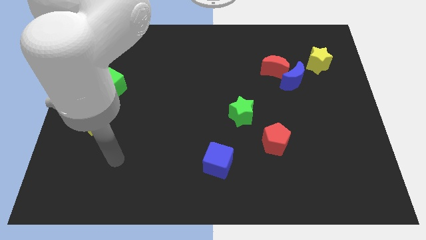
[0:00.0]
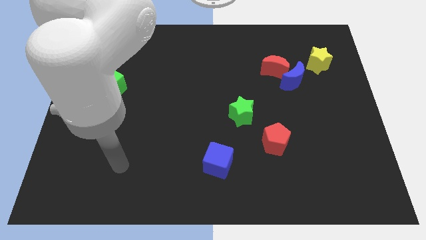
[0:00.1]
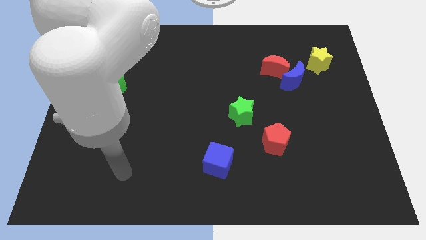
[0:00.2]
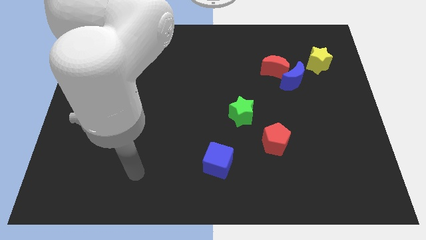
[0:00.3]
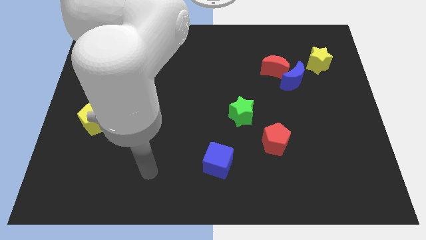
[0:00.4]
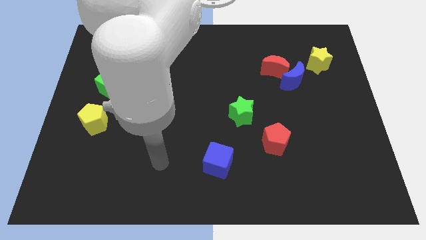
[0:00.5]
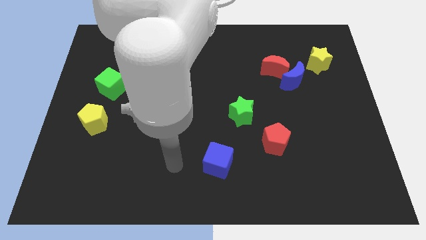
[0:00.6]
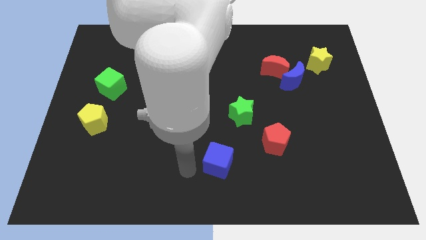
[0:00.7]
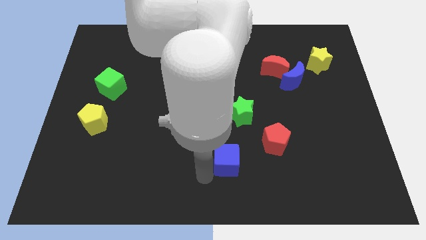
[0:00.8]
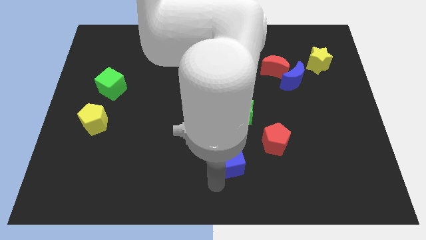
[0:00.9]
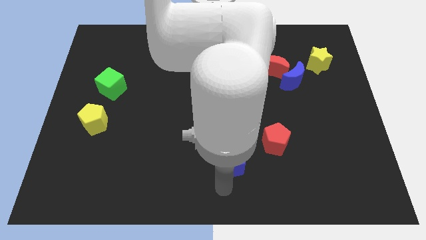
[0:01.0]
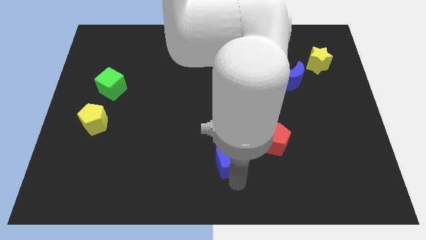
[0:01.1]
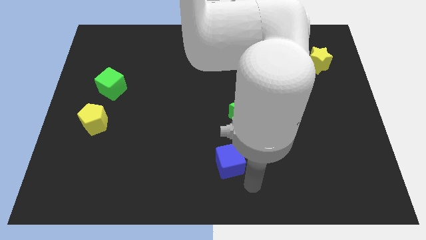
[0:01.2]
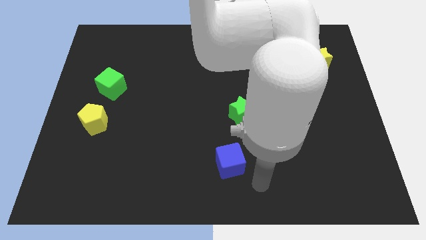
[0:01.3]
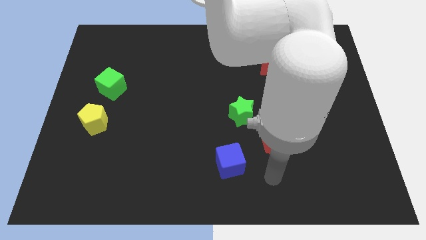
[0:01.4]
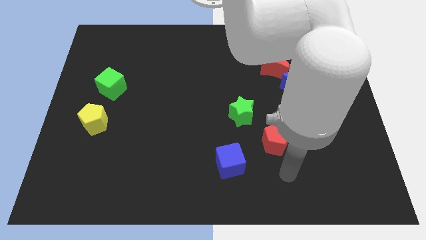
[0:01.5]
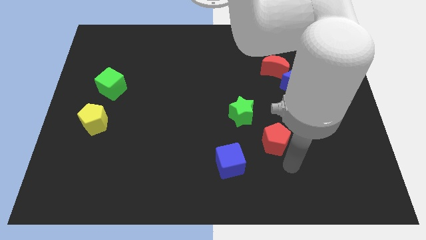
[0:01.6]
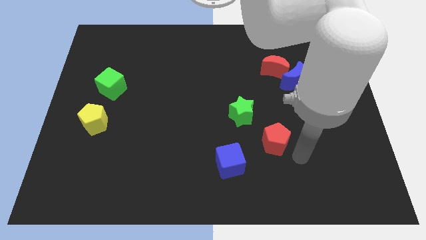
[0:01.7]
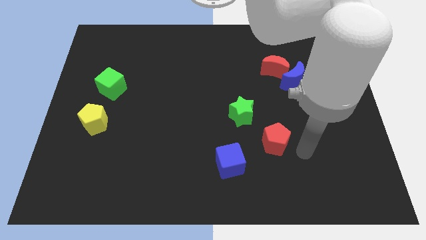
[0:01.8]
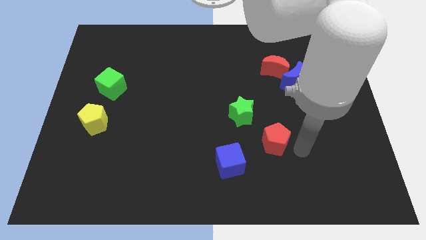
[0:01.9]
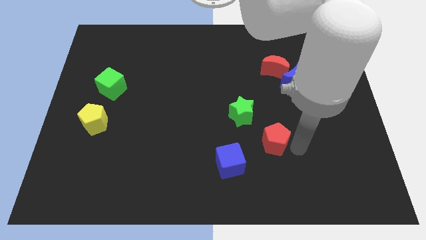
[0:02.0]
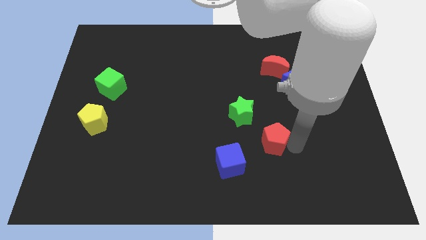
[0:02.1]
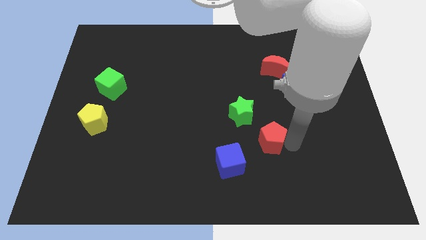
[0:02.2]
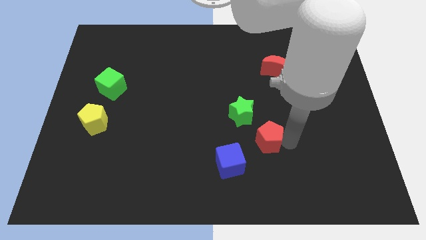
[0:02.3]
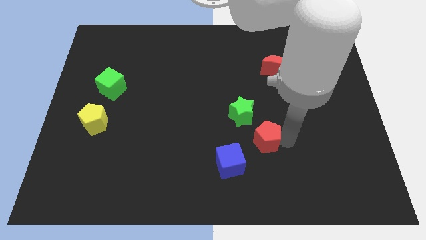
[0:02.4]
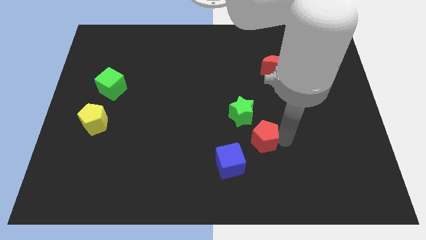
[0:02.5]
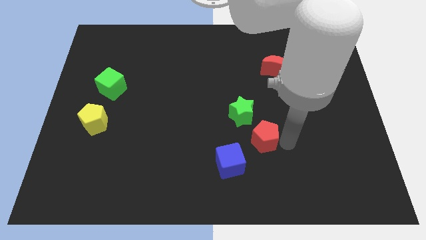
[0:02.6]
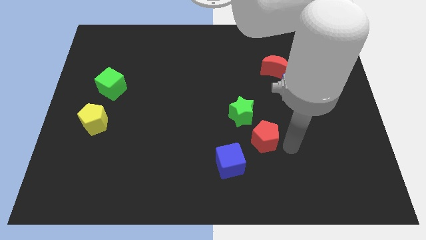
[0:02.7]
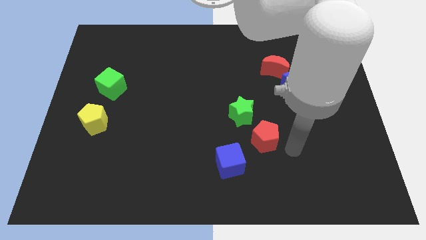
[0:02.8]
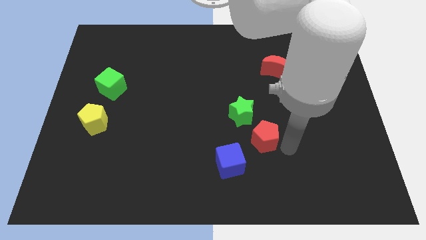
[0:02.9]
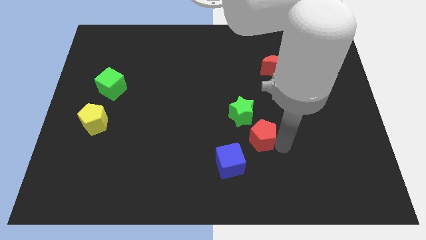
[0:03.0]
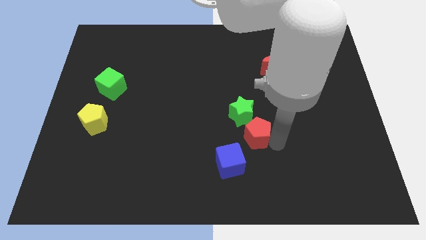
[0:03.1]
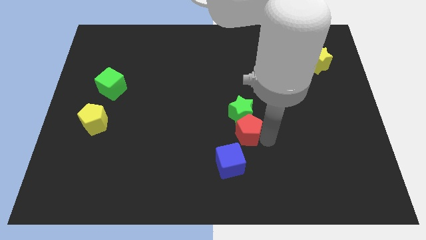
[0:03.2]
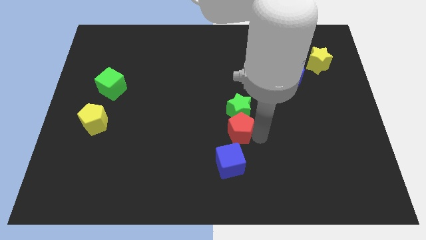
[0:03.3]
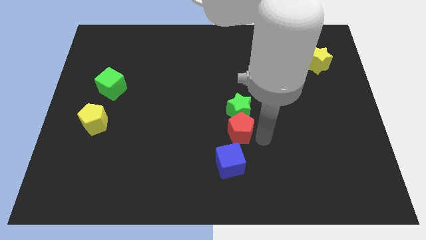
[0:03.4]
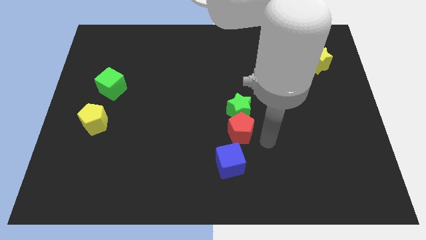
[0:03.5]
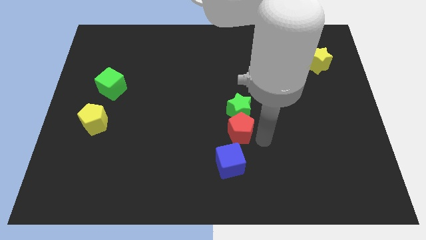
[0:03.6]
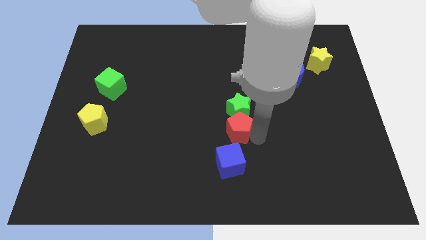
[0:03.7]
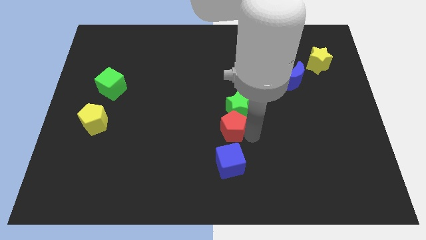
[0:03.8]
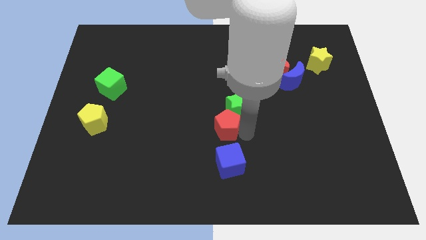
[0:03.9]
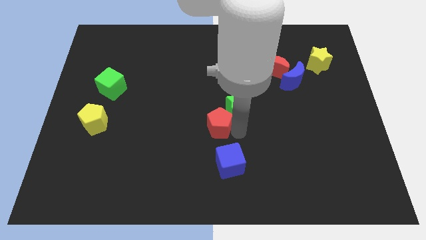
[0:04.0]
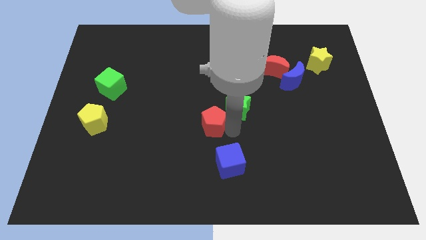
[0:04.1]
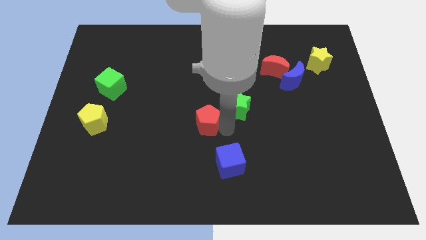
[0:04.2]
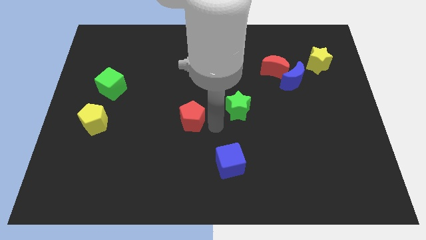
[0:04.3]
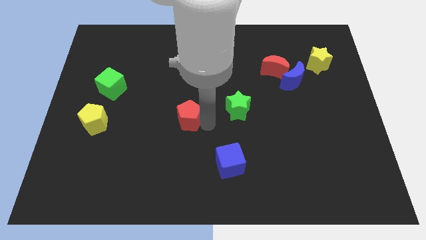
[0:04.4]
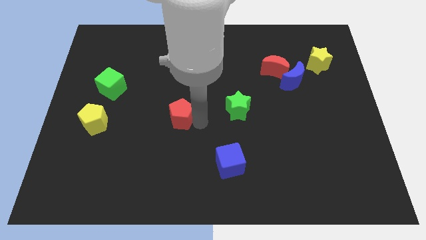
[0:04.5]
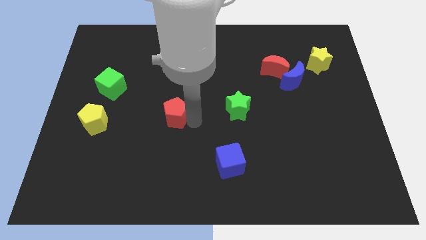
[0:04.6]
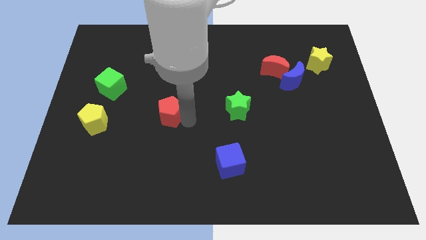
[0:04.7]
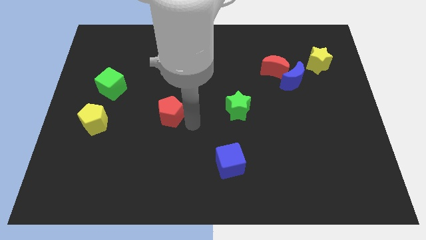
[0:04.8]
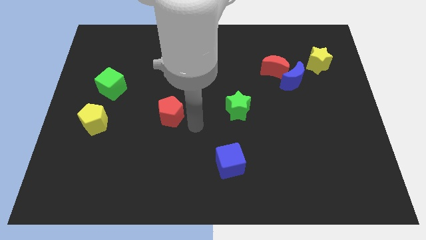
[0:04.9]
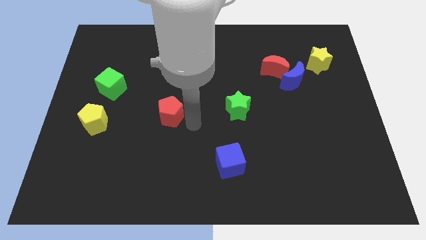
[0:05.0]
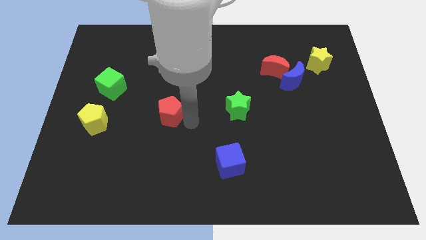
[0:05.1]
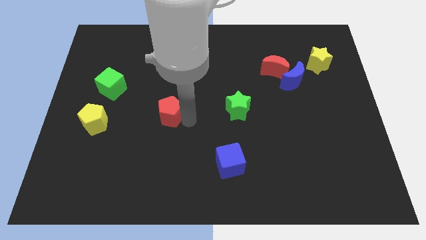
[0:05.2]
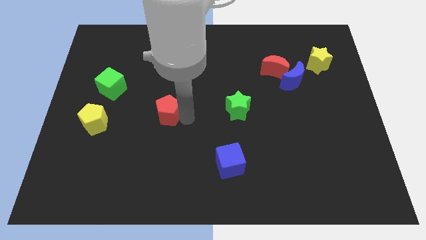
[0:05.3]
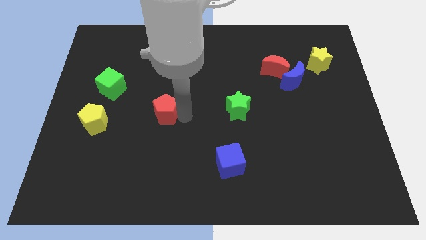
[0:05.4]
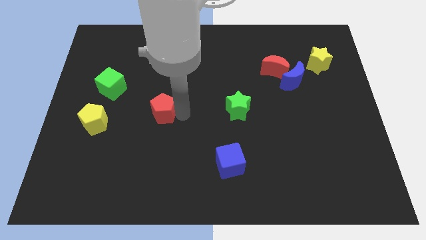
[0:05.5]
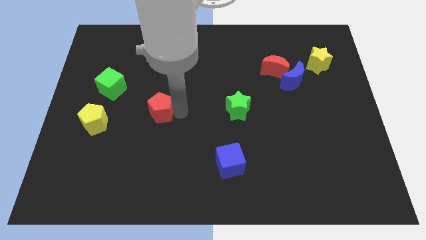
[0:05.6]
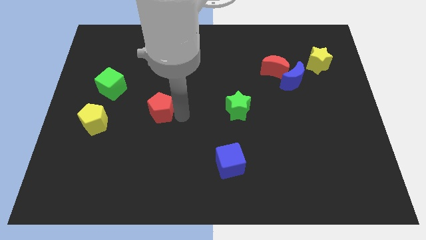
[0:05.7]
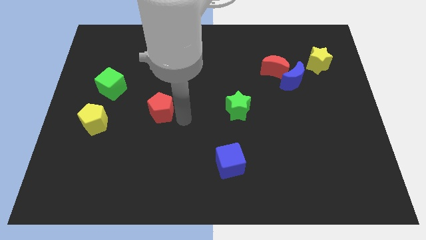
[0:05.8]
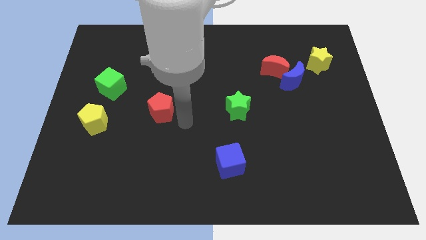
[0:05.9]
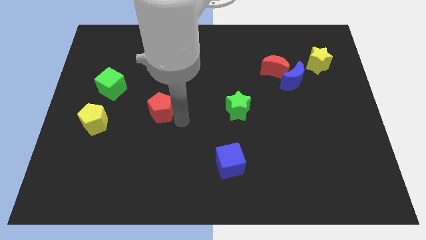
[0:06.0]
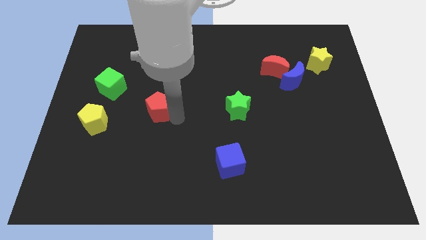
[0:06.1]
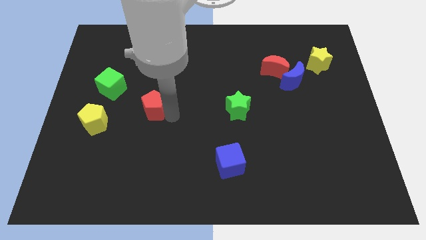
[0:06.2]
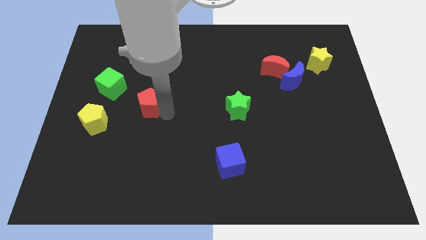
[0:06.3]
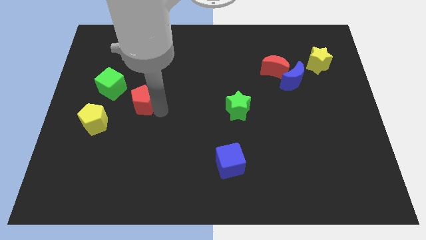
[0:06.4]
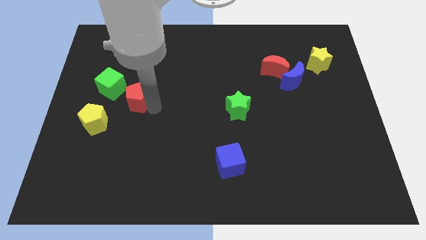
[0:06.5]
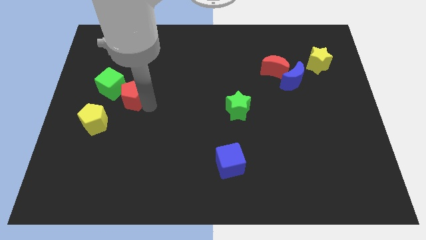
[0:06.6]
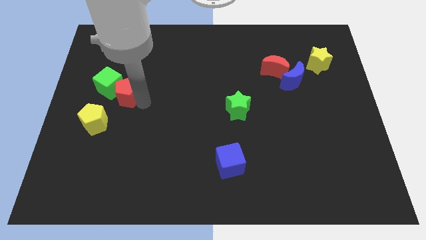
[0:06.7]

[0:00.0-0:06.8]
push the red pentagon to the green cube

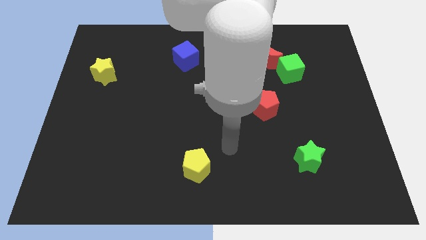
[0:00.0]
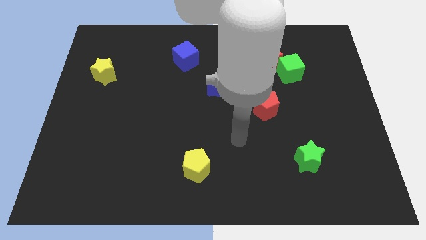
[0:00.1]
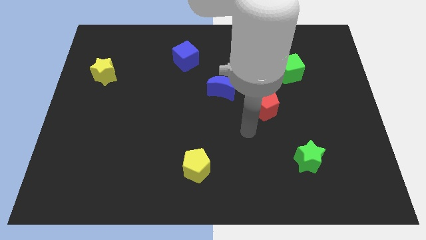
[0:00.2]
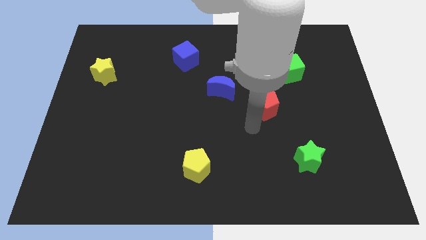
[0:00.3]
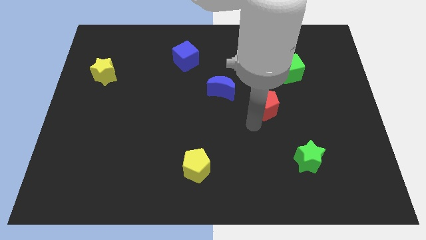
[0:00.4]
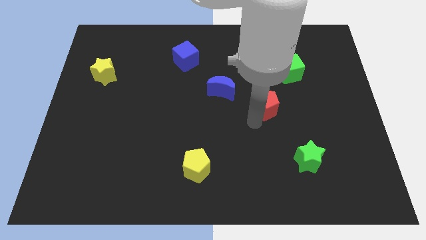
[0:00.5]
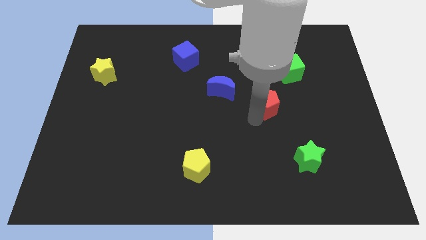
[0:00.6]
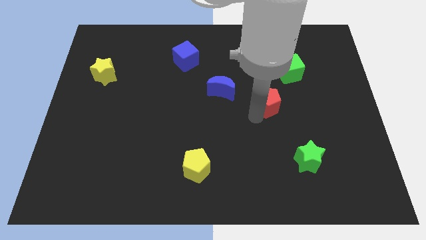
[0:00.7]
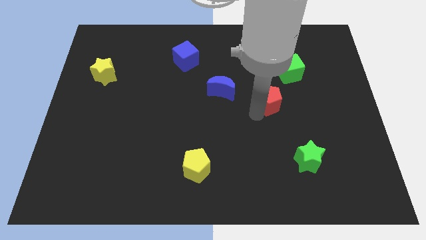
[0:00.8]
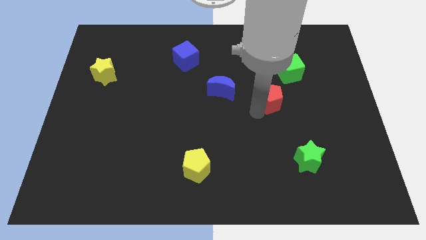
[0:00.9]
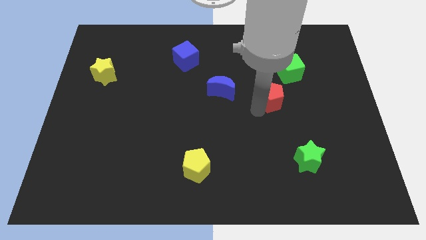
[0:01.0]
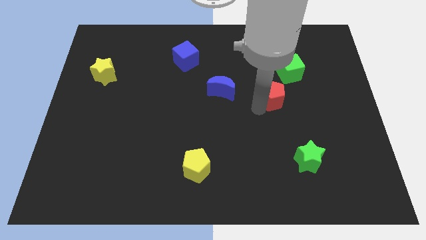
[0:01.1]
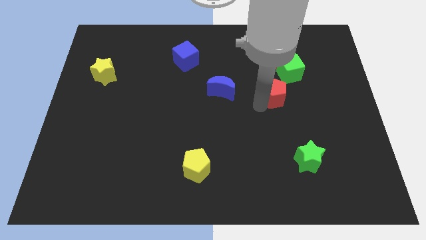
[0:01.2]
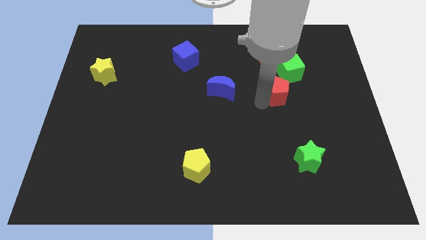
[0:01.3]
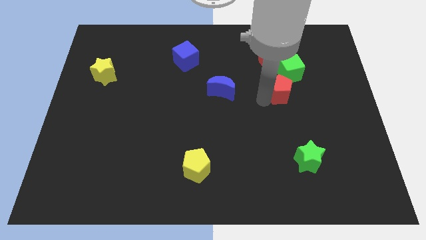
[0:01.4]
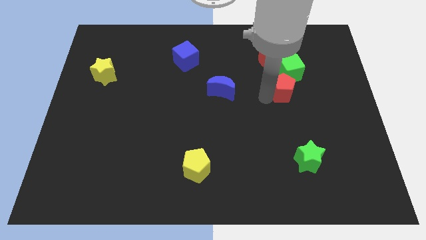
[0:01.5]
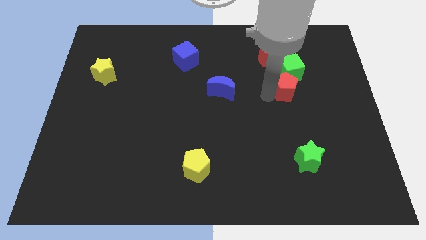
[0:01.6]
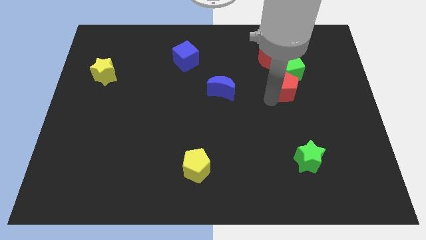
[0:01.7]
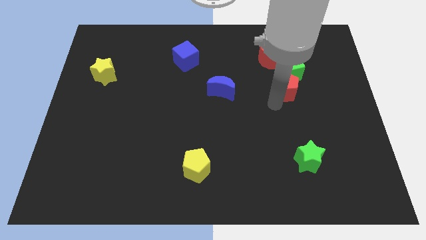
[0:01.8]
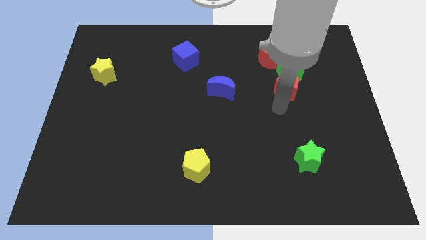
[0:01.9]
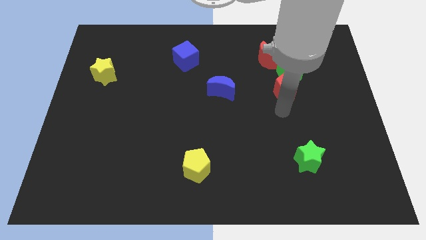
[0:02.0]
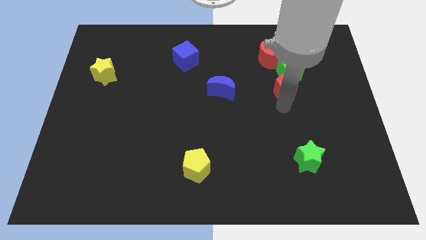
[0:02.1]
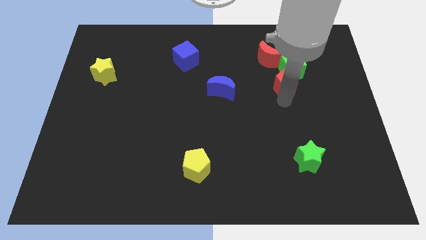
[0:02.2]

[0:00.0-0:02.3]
slide the red pentagon to the green cube
